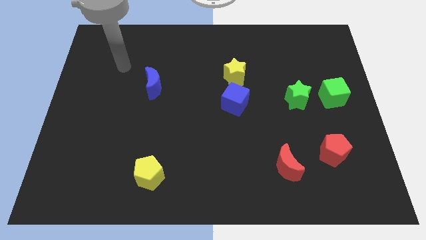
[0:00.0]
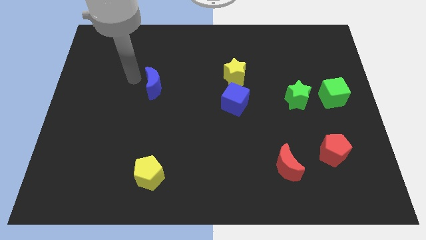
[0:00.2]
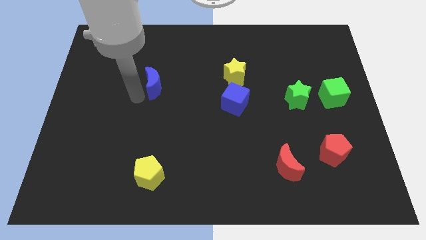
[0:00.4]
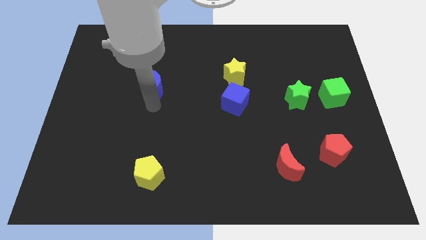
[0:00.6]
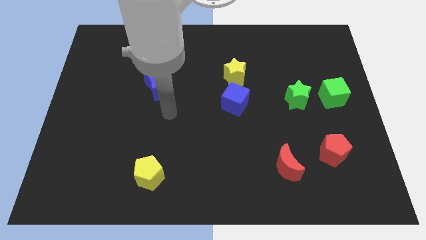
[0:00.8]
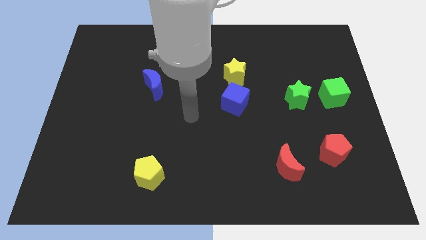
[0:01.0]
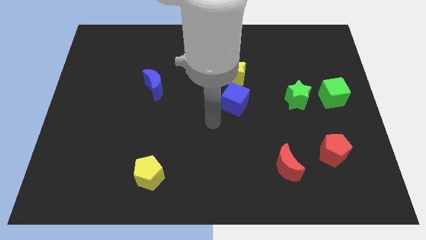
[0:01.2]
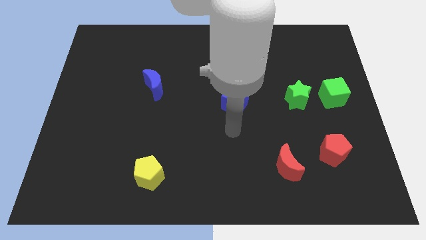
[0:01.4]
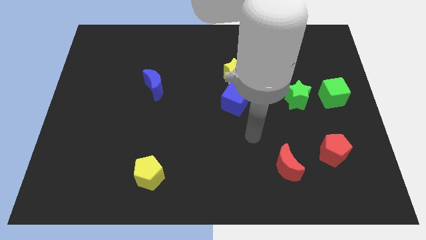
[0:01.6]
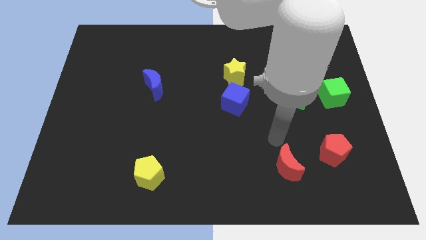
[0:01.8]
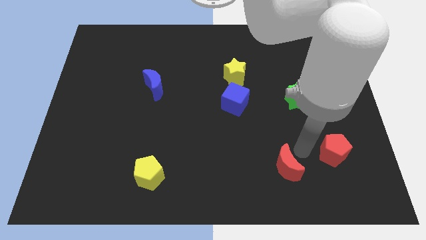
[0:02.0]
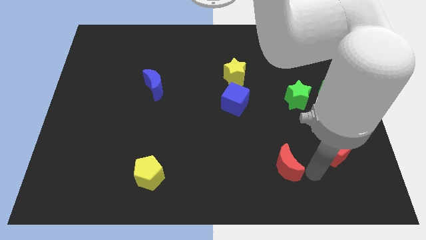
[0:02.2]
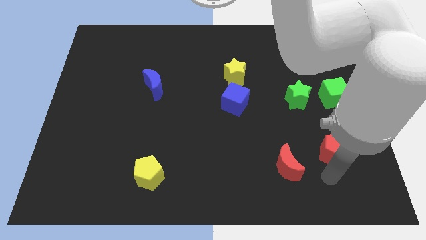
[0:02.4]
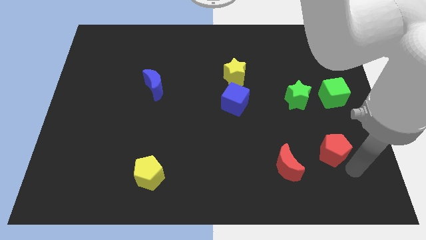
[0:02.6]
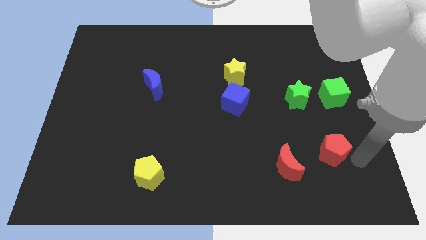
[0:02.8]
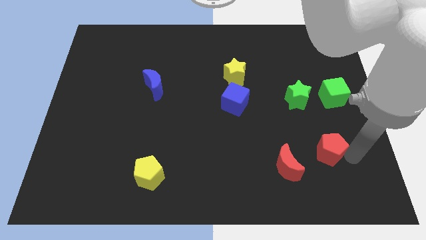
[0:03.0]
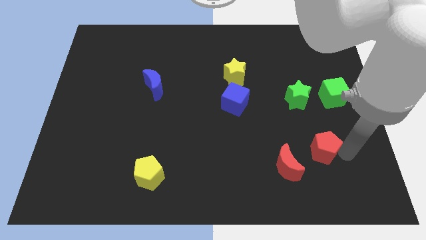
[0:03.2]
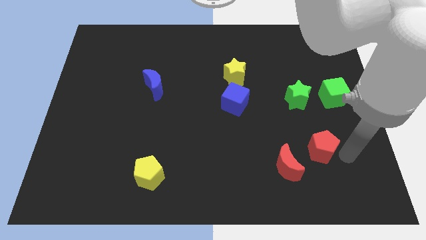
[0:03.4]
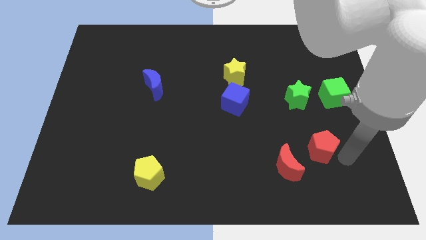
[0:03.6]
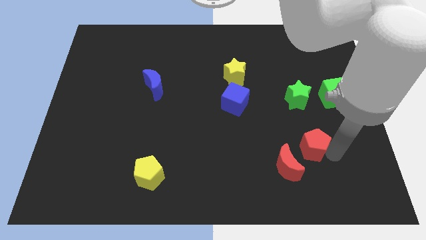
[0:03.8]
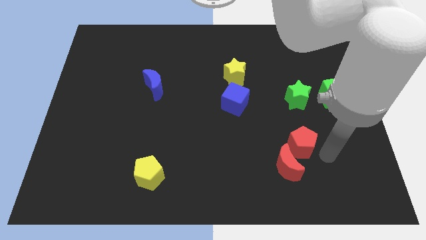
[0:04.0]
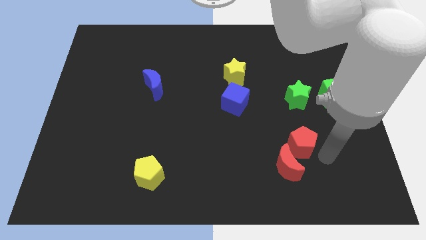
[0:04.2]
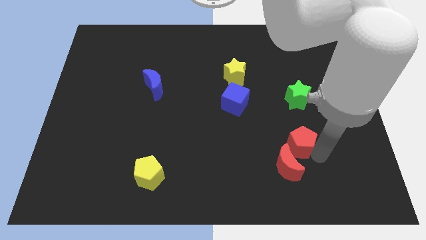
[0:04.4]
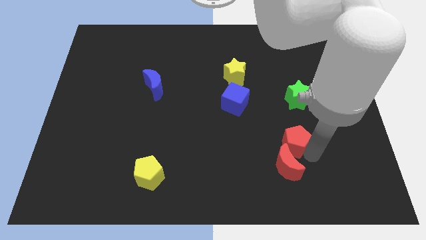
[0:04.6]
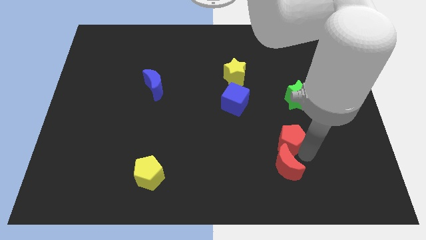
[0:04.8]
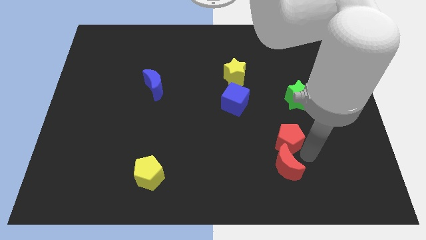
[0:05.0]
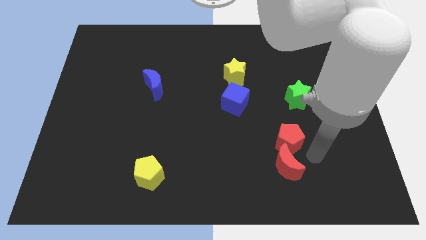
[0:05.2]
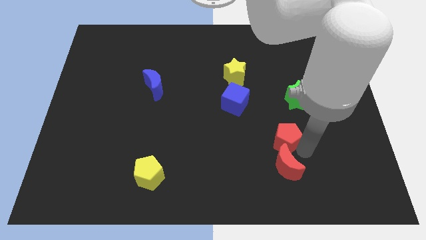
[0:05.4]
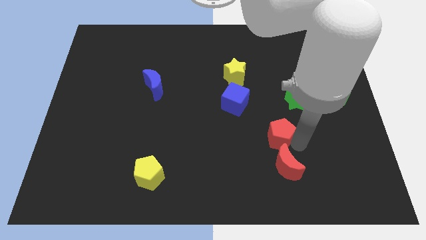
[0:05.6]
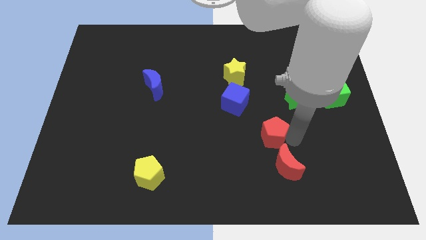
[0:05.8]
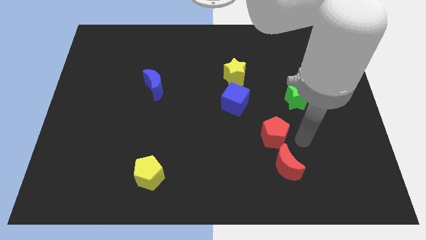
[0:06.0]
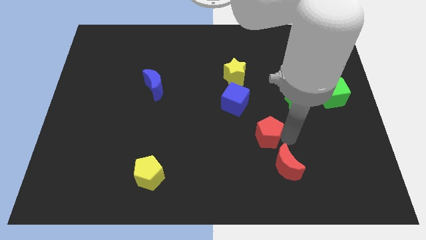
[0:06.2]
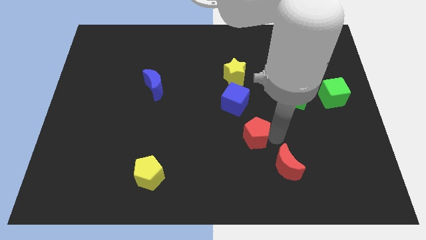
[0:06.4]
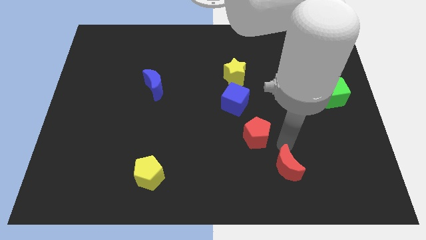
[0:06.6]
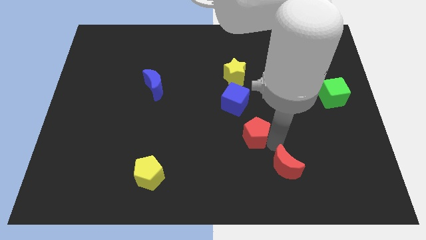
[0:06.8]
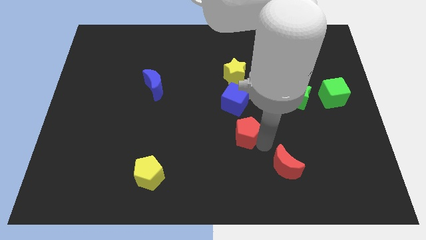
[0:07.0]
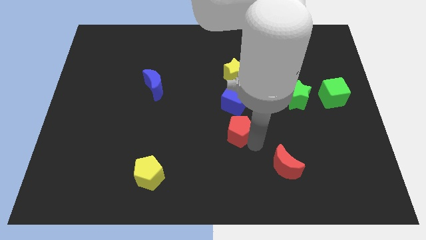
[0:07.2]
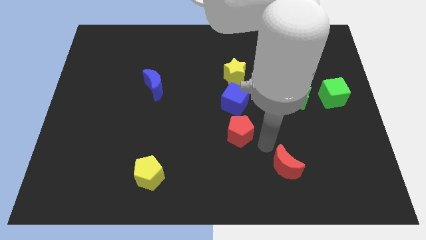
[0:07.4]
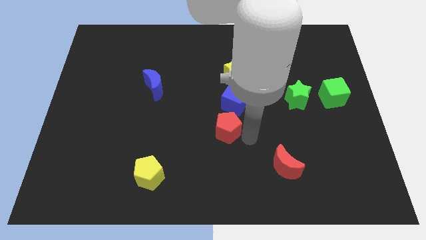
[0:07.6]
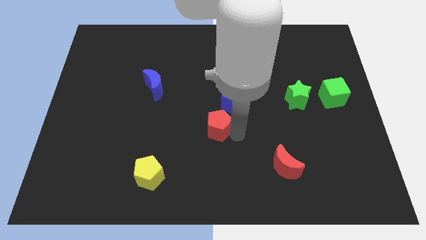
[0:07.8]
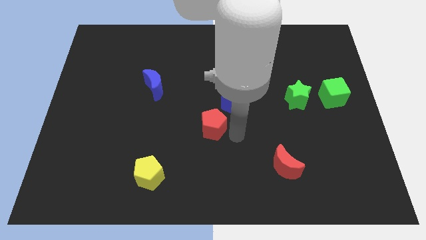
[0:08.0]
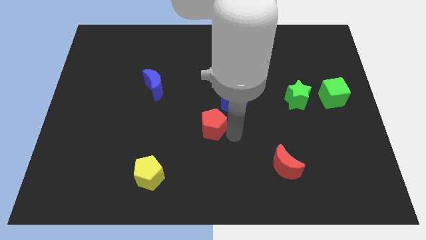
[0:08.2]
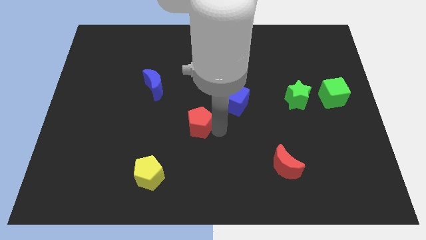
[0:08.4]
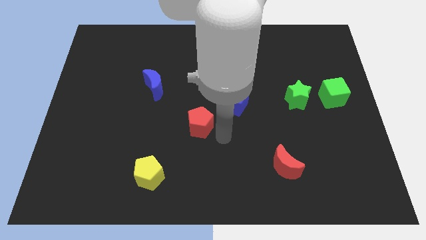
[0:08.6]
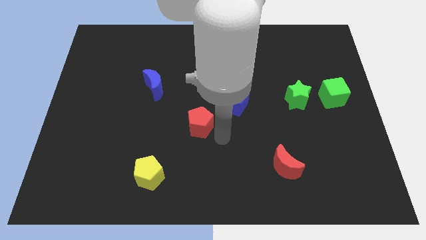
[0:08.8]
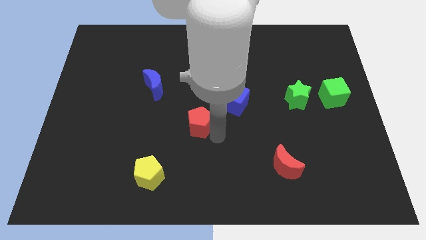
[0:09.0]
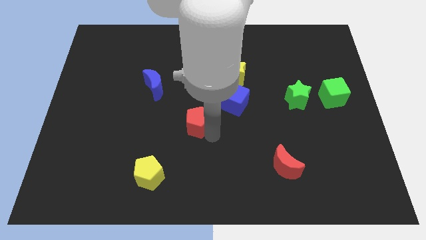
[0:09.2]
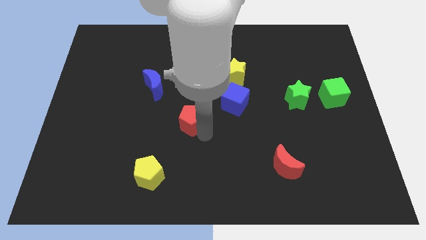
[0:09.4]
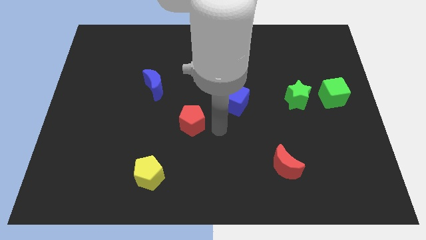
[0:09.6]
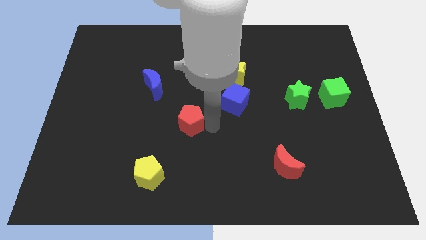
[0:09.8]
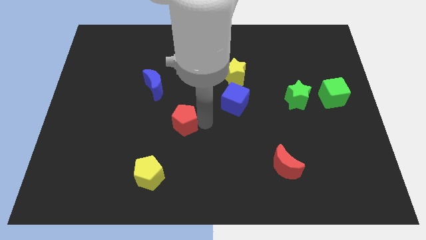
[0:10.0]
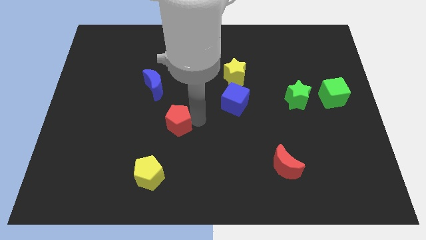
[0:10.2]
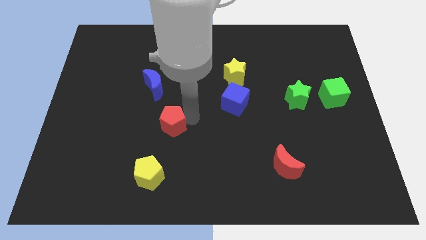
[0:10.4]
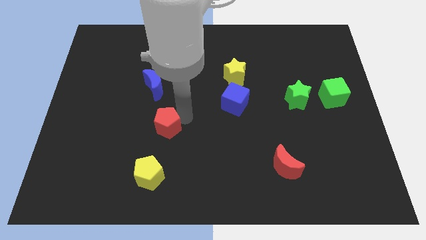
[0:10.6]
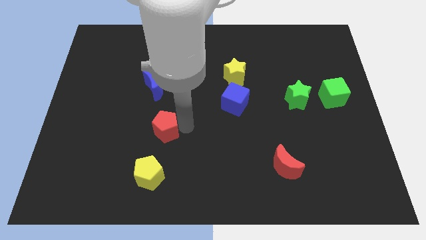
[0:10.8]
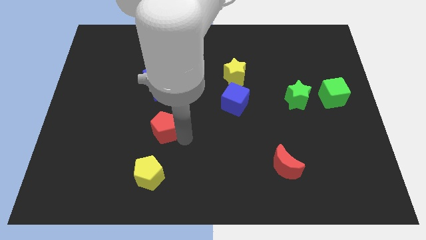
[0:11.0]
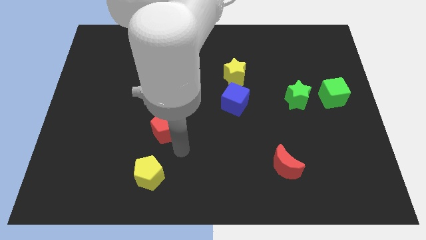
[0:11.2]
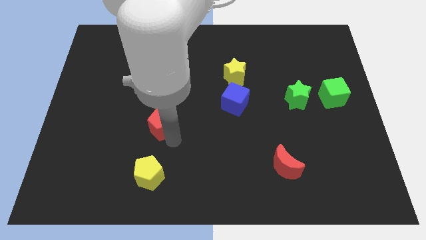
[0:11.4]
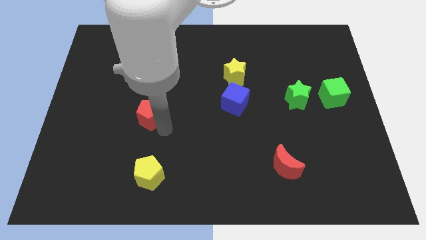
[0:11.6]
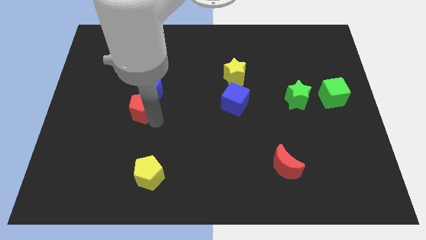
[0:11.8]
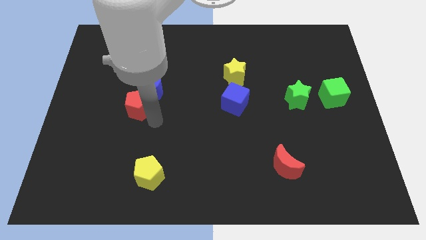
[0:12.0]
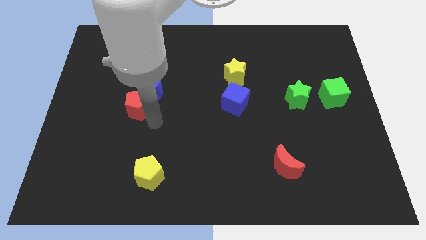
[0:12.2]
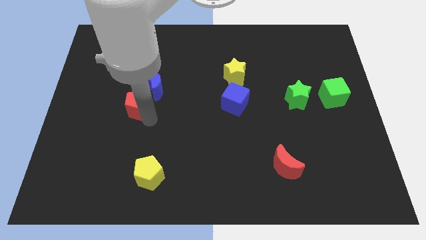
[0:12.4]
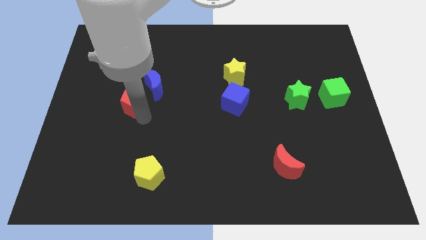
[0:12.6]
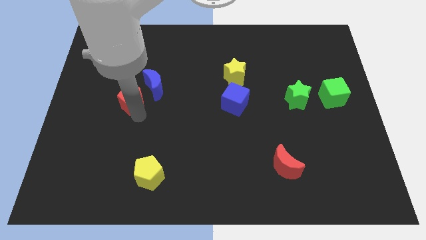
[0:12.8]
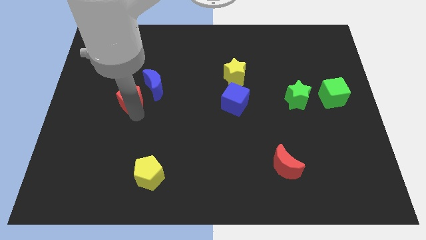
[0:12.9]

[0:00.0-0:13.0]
push the red pentagon just left of the blue moon

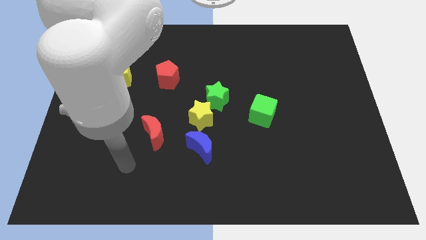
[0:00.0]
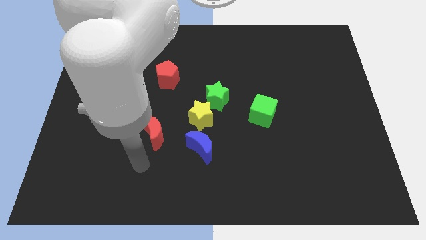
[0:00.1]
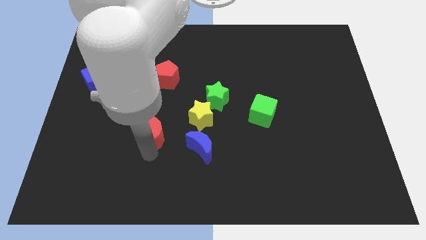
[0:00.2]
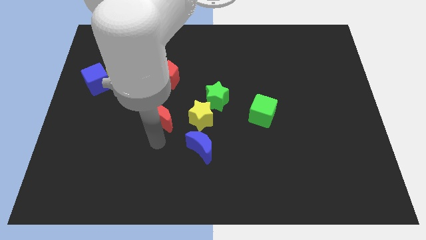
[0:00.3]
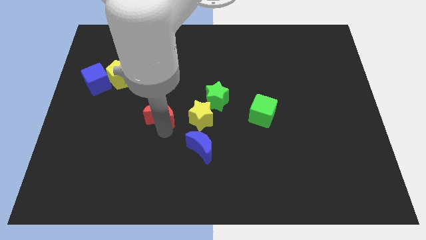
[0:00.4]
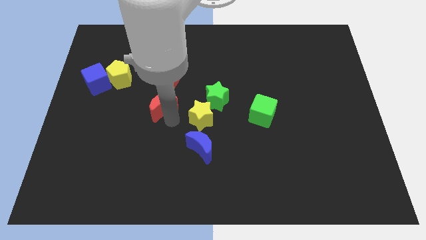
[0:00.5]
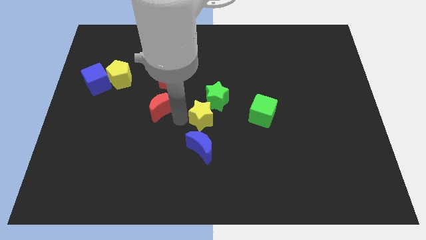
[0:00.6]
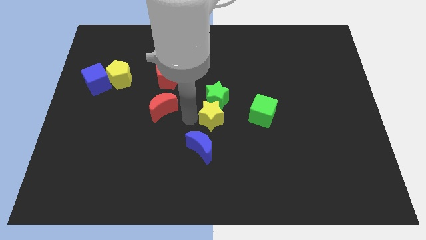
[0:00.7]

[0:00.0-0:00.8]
slide the yellow star to the bottom right side of the green star
